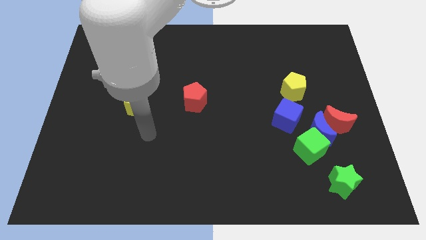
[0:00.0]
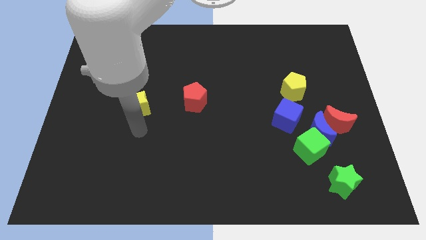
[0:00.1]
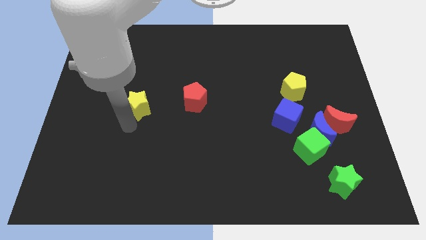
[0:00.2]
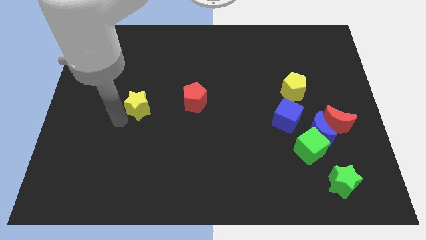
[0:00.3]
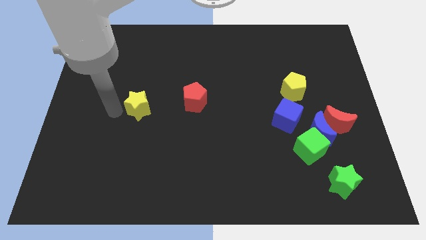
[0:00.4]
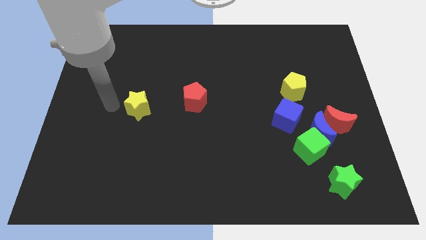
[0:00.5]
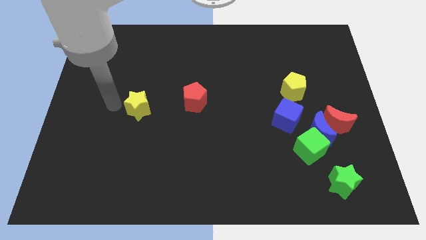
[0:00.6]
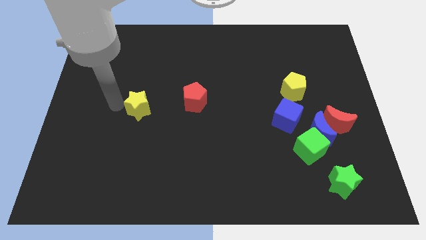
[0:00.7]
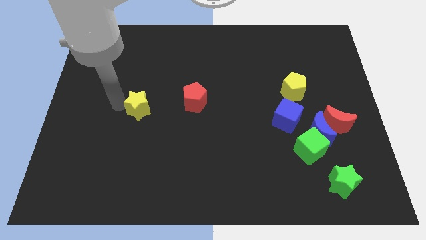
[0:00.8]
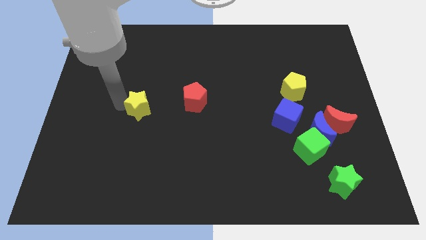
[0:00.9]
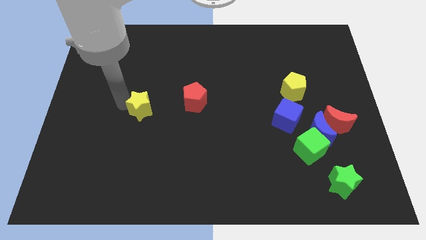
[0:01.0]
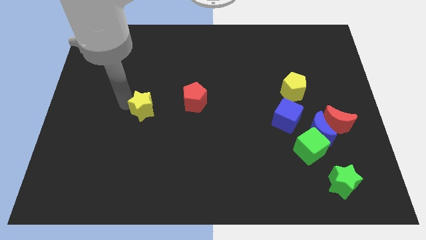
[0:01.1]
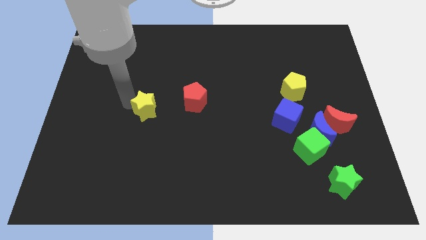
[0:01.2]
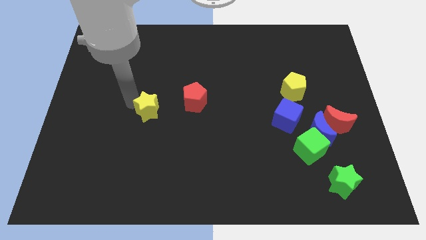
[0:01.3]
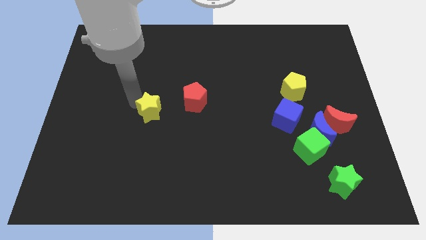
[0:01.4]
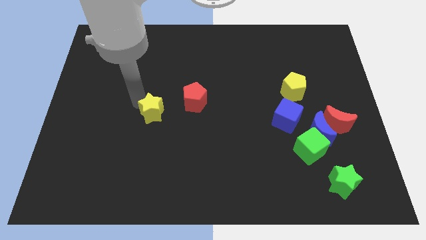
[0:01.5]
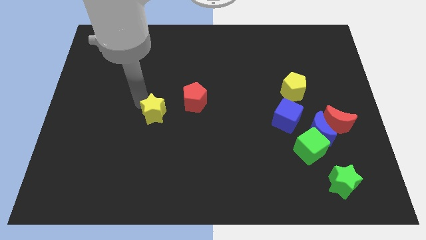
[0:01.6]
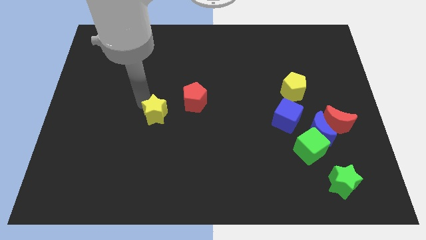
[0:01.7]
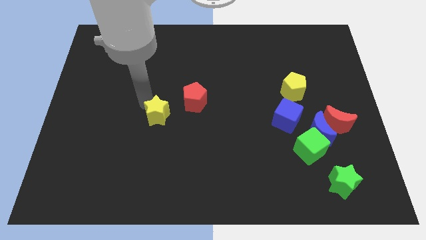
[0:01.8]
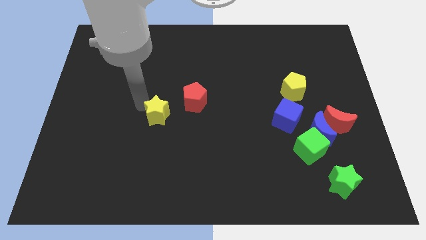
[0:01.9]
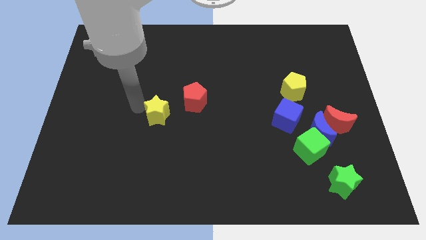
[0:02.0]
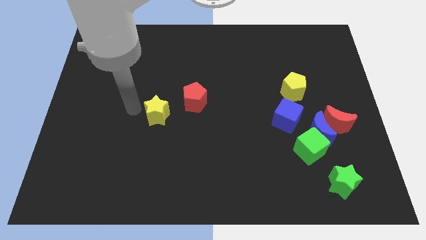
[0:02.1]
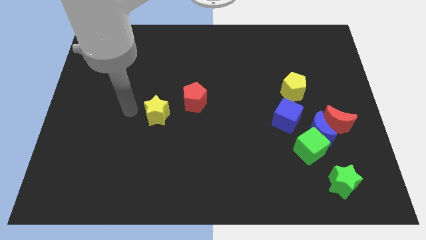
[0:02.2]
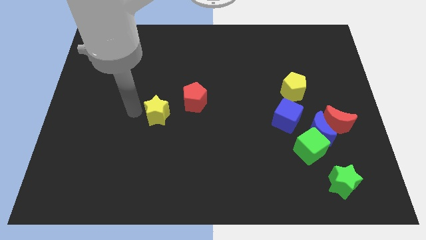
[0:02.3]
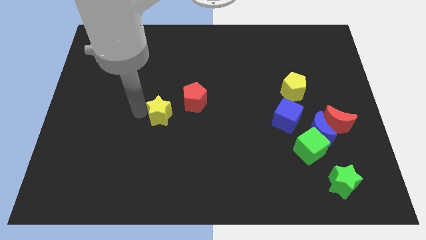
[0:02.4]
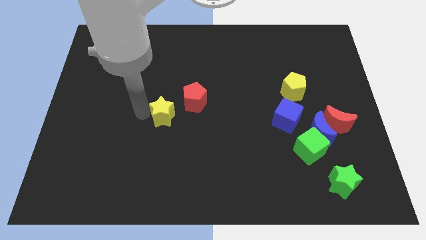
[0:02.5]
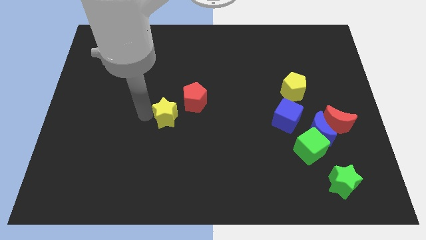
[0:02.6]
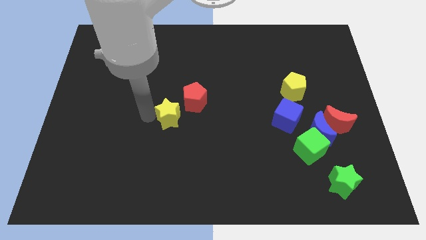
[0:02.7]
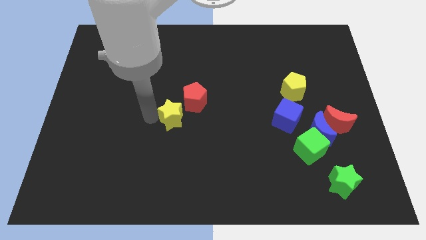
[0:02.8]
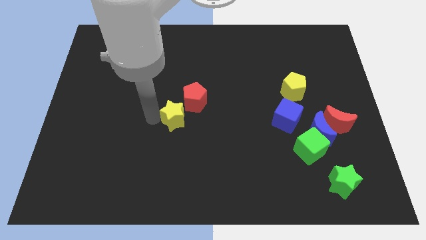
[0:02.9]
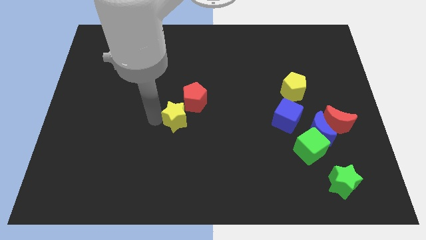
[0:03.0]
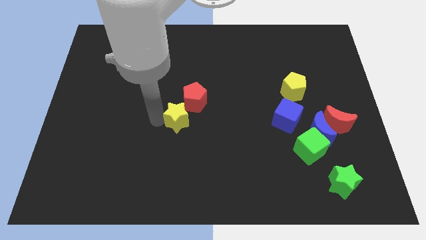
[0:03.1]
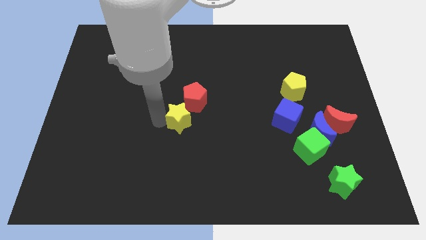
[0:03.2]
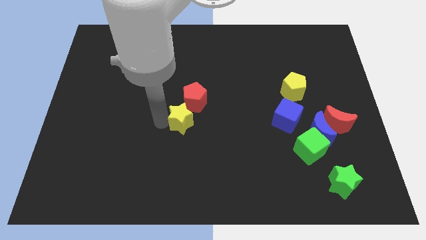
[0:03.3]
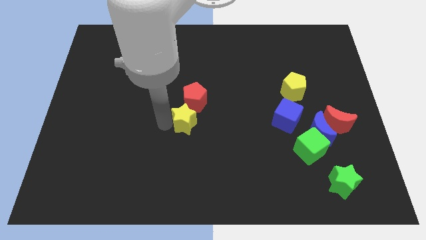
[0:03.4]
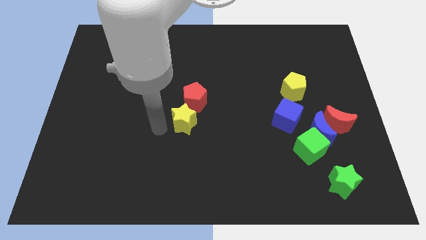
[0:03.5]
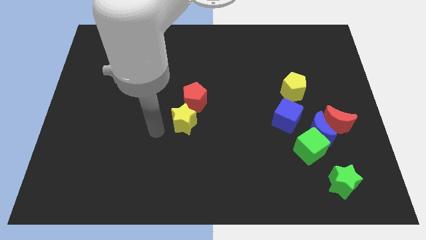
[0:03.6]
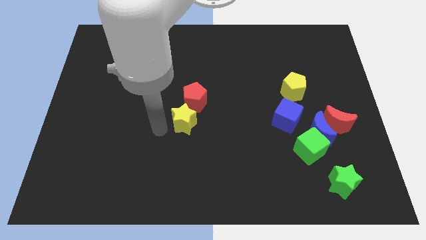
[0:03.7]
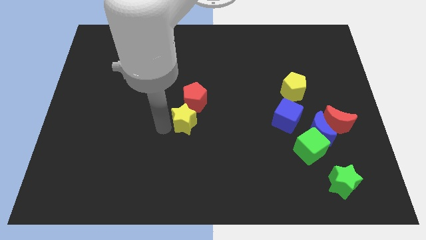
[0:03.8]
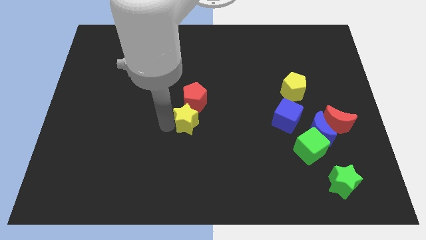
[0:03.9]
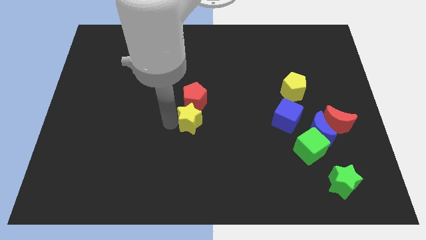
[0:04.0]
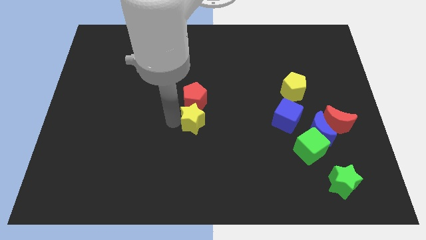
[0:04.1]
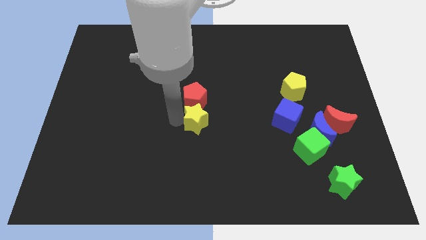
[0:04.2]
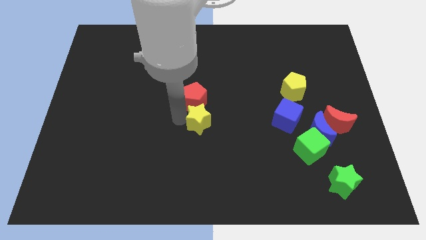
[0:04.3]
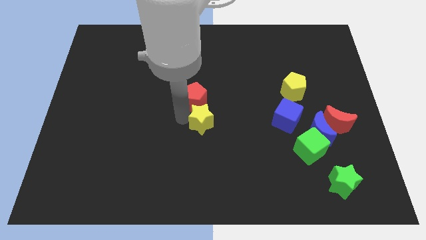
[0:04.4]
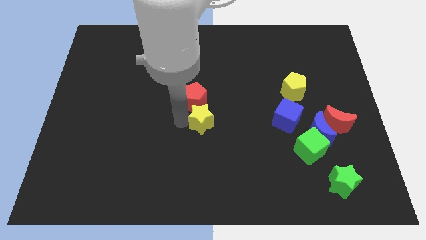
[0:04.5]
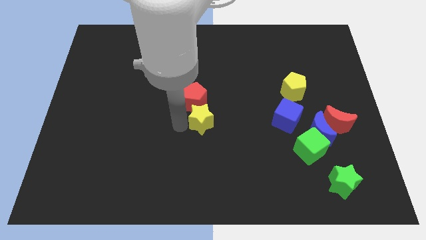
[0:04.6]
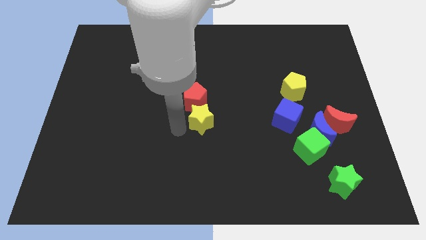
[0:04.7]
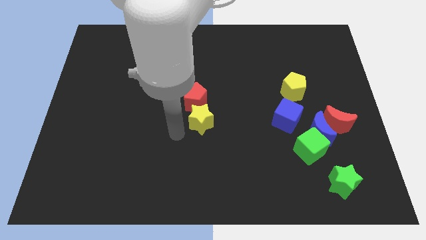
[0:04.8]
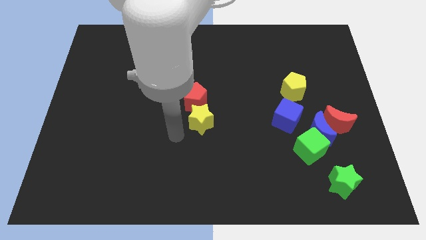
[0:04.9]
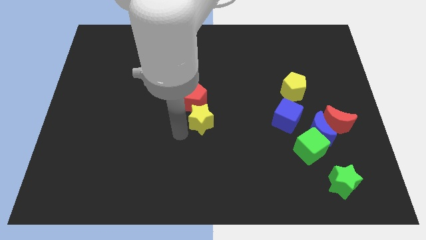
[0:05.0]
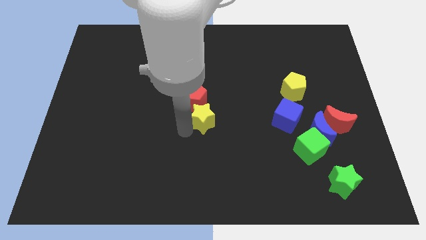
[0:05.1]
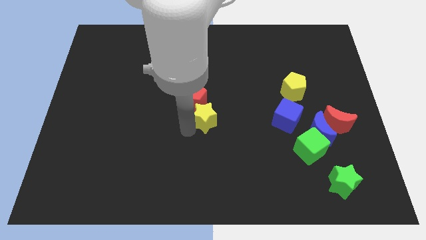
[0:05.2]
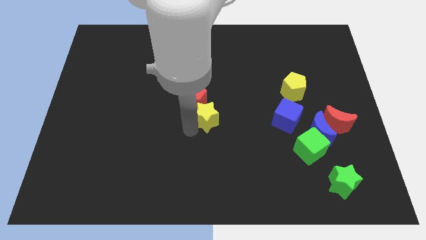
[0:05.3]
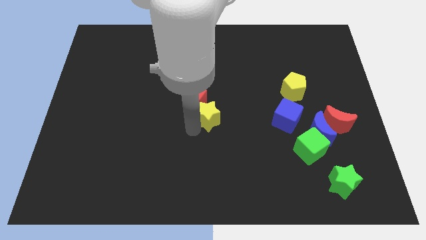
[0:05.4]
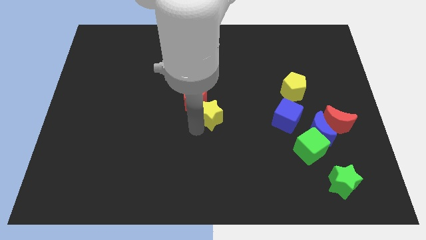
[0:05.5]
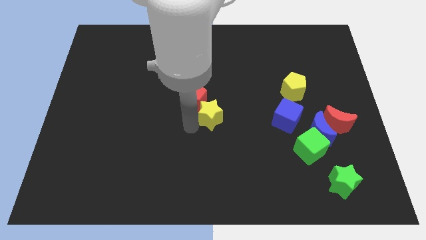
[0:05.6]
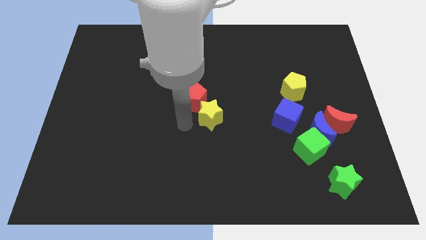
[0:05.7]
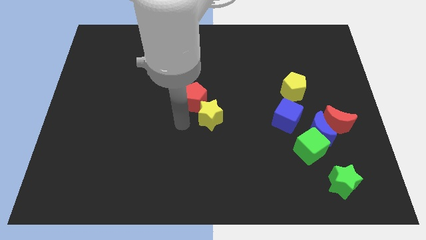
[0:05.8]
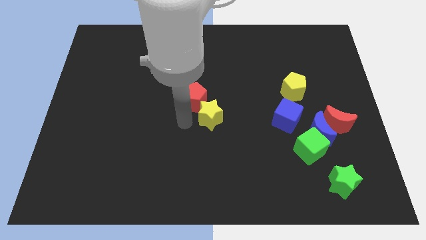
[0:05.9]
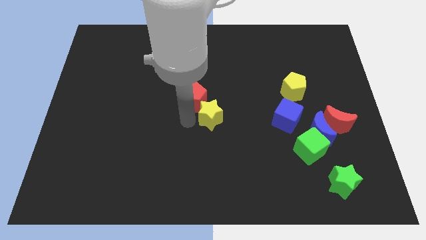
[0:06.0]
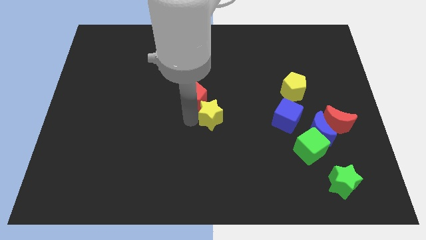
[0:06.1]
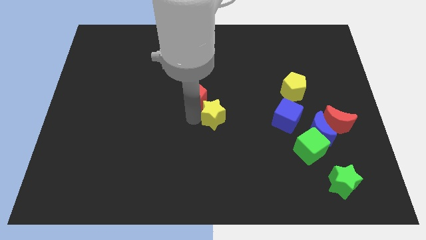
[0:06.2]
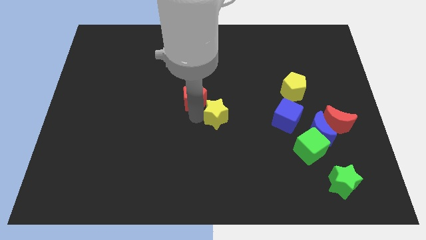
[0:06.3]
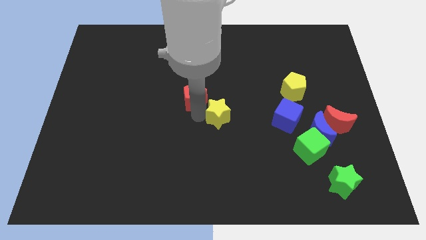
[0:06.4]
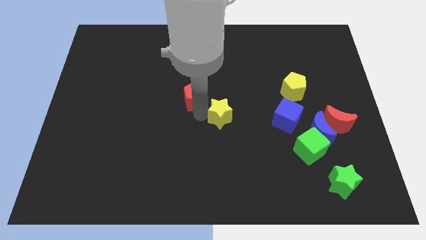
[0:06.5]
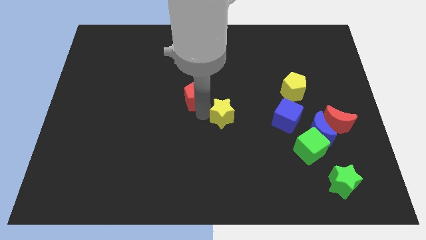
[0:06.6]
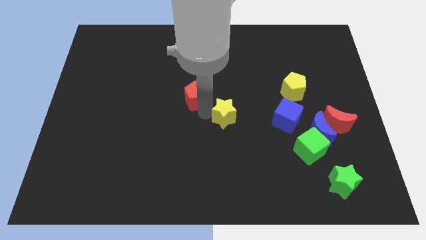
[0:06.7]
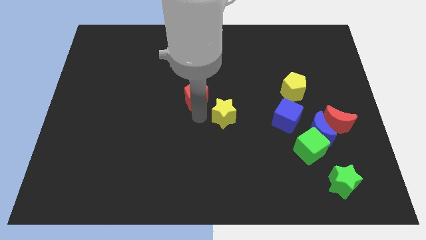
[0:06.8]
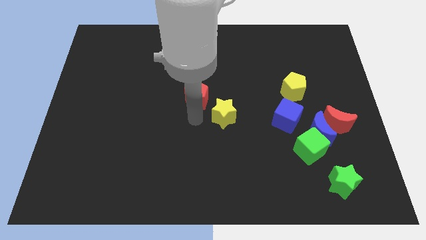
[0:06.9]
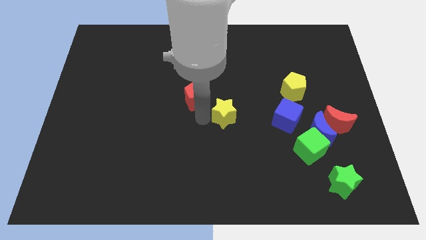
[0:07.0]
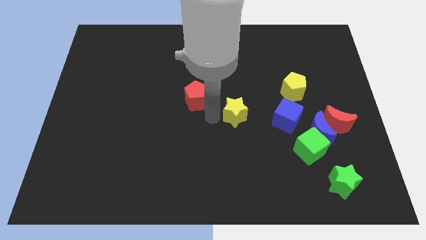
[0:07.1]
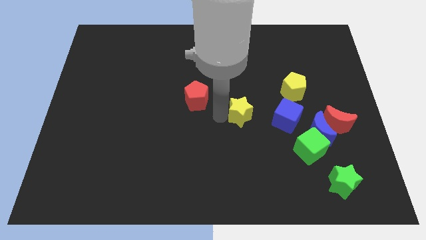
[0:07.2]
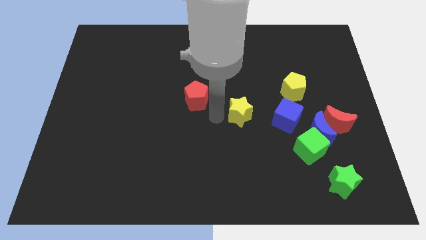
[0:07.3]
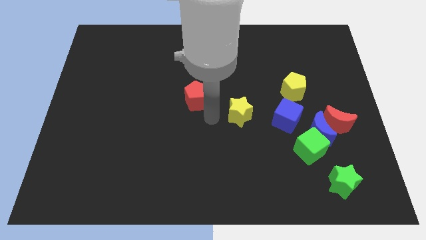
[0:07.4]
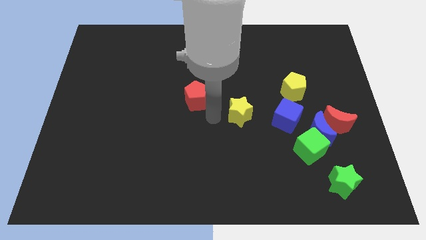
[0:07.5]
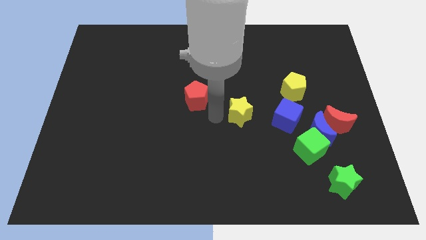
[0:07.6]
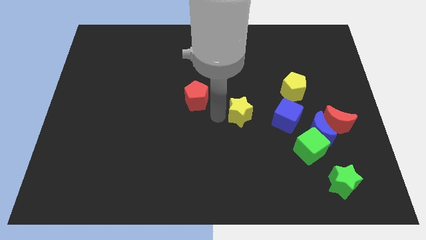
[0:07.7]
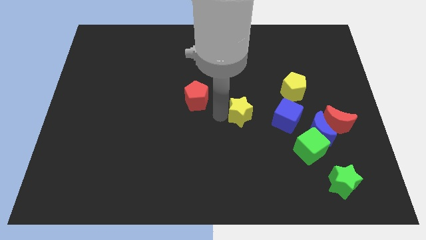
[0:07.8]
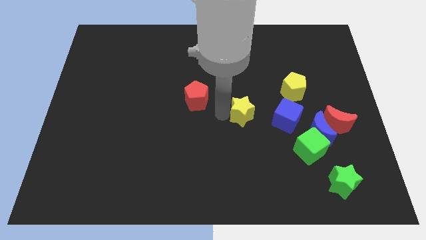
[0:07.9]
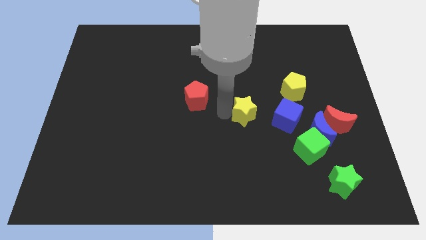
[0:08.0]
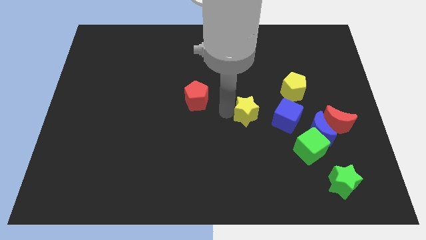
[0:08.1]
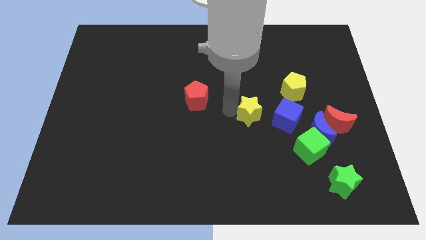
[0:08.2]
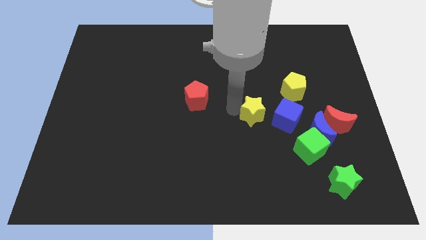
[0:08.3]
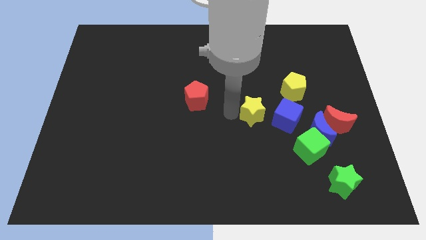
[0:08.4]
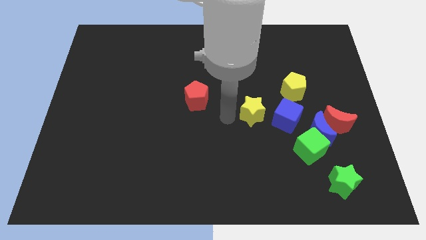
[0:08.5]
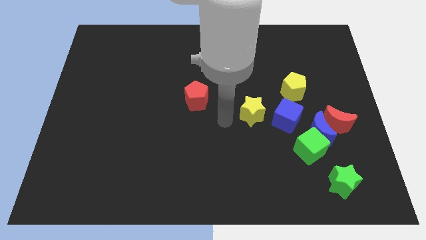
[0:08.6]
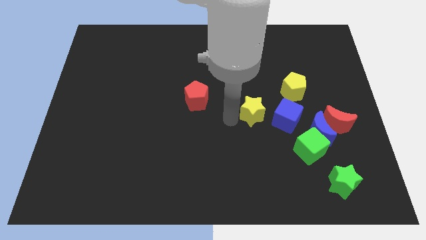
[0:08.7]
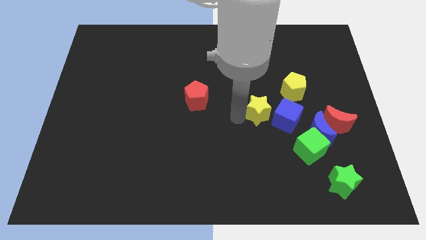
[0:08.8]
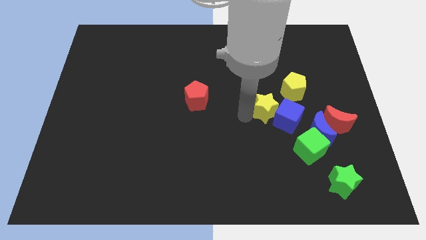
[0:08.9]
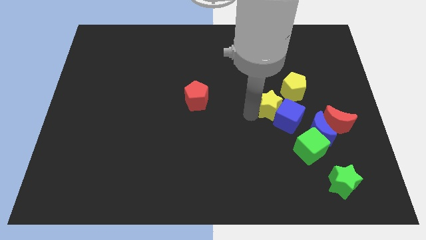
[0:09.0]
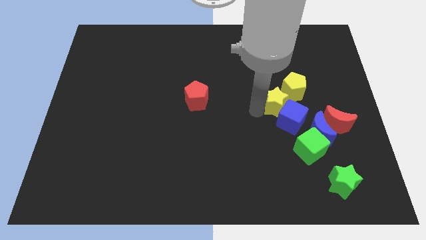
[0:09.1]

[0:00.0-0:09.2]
slide the yellow star diagonally up and to the left of the blue moon
